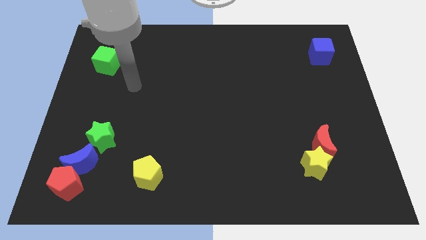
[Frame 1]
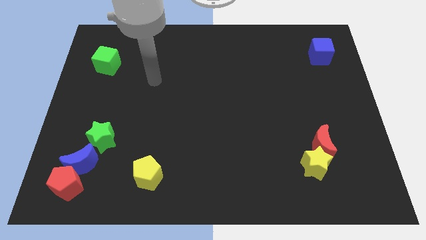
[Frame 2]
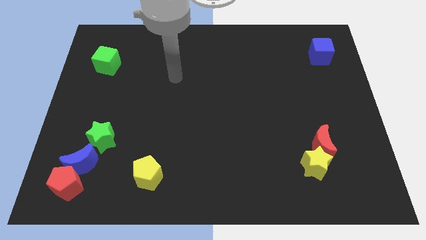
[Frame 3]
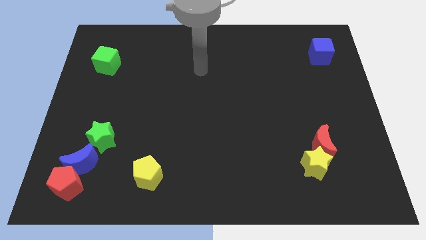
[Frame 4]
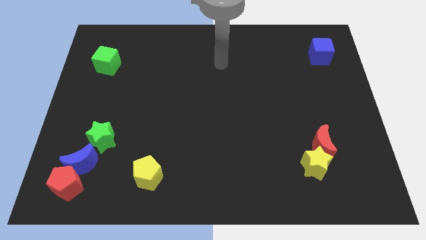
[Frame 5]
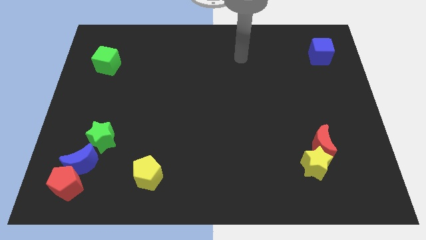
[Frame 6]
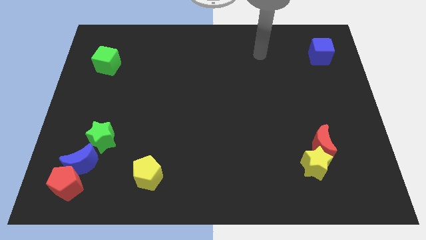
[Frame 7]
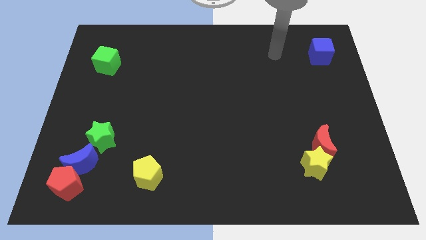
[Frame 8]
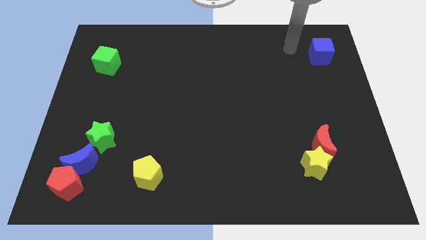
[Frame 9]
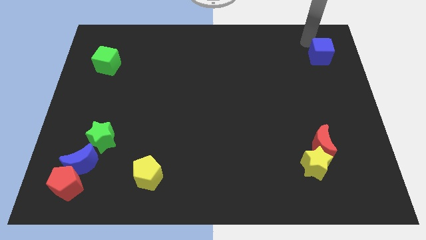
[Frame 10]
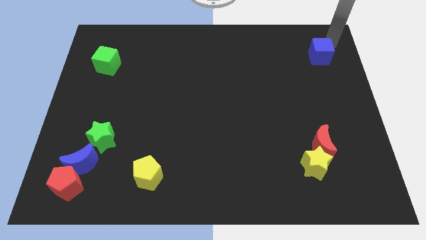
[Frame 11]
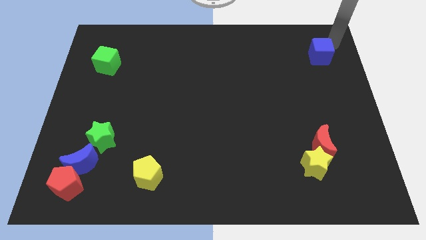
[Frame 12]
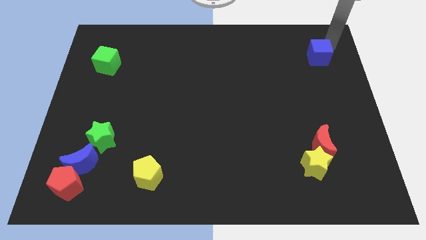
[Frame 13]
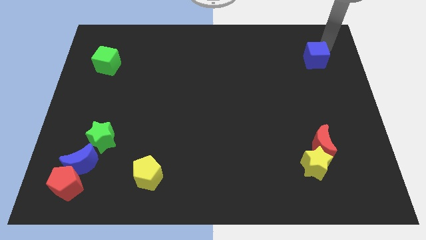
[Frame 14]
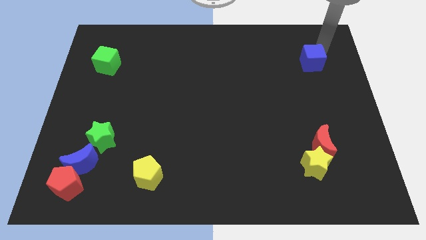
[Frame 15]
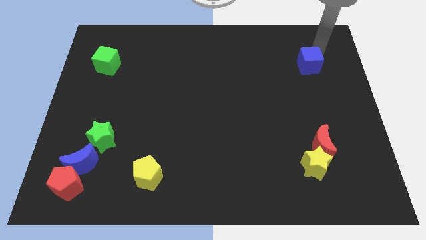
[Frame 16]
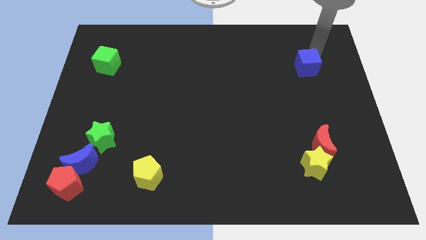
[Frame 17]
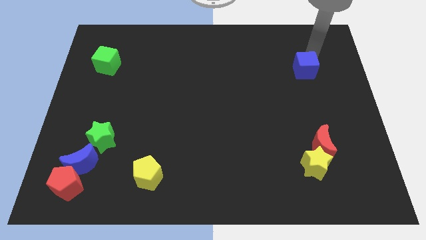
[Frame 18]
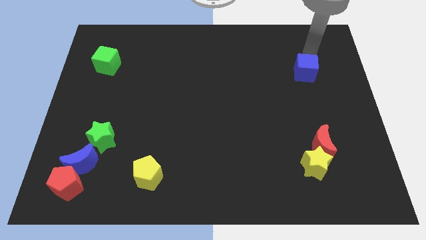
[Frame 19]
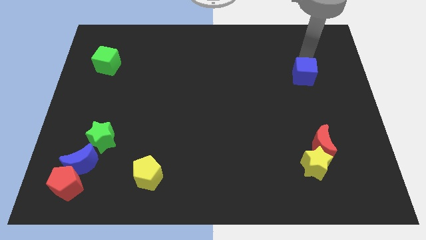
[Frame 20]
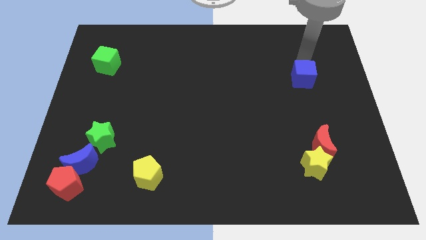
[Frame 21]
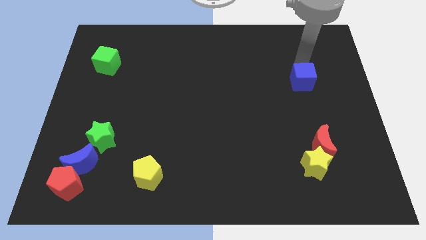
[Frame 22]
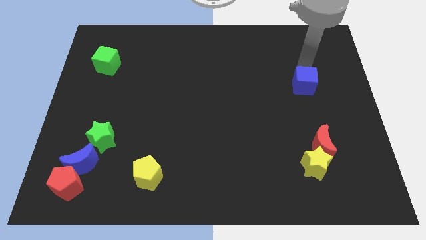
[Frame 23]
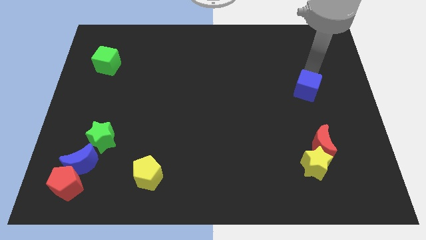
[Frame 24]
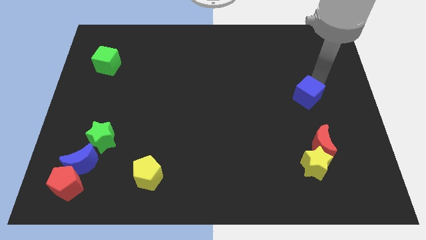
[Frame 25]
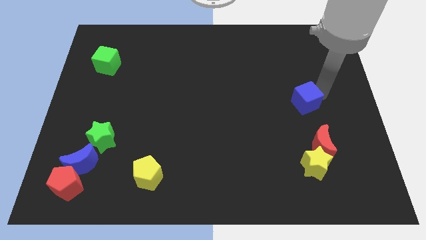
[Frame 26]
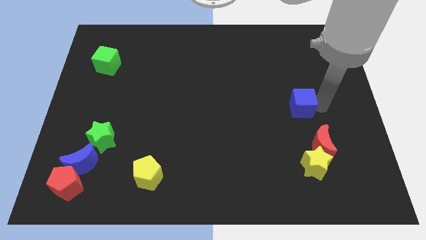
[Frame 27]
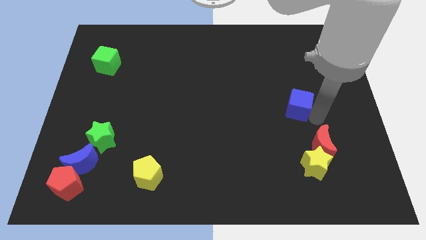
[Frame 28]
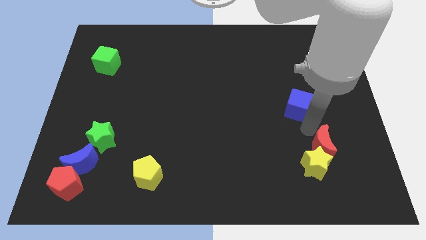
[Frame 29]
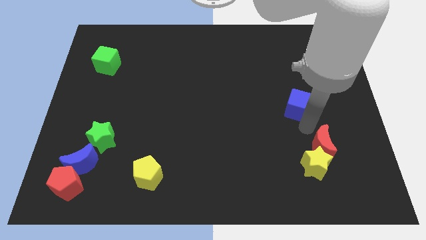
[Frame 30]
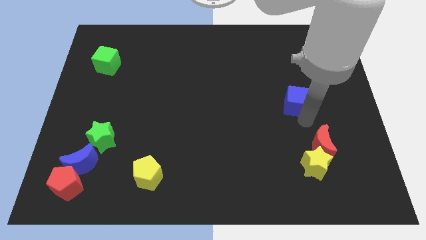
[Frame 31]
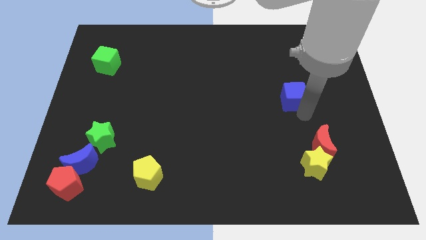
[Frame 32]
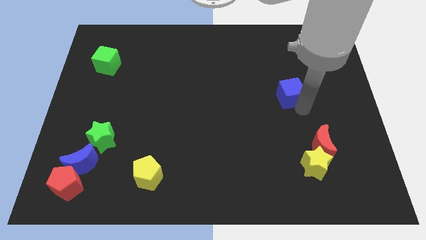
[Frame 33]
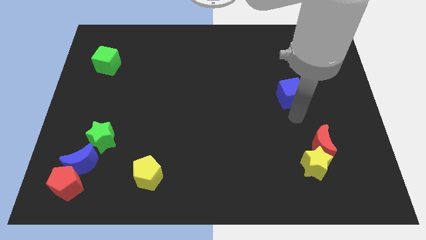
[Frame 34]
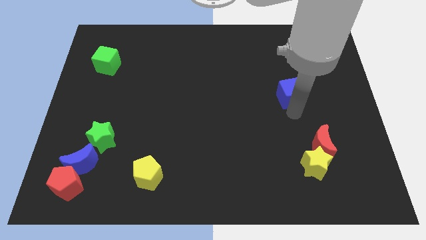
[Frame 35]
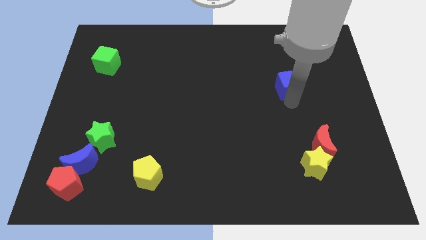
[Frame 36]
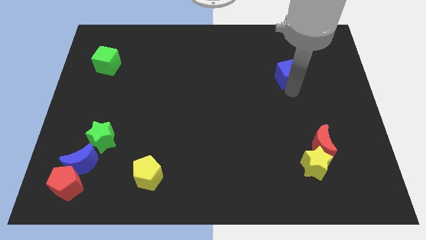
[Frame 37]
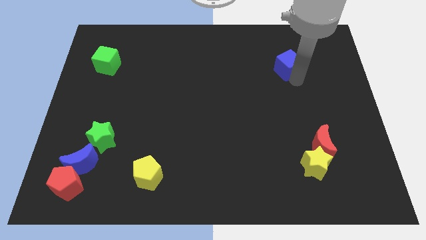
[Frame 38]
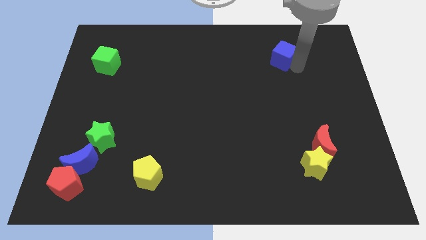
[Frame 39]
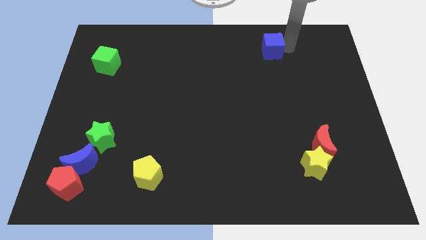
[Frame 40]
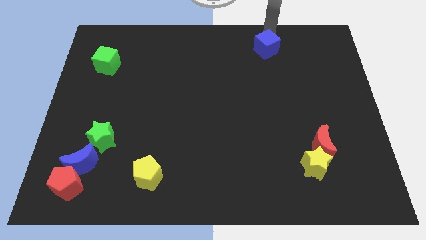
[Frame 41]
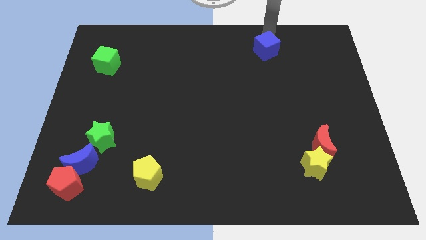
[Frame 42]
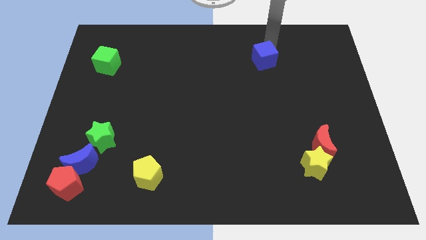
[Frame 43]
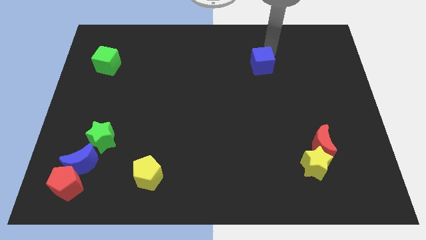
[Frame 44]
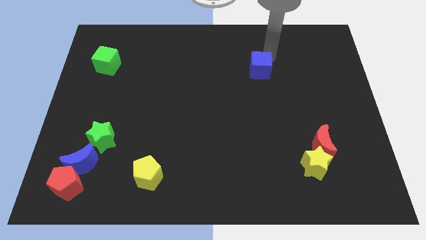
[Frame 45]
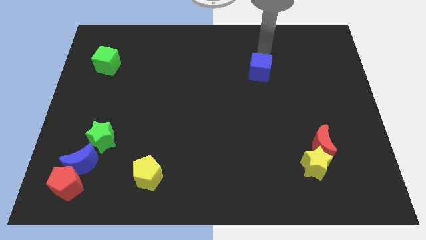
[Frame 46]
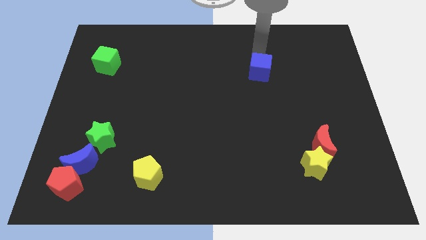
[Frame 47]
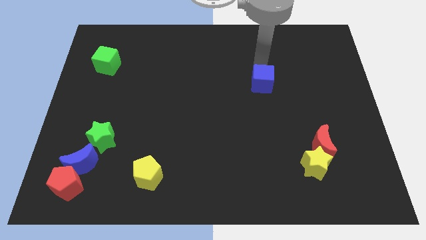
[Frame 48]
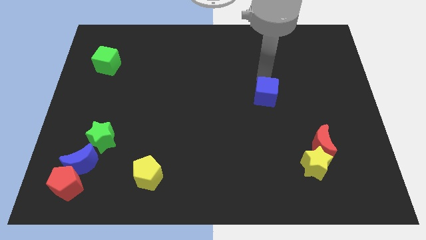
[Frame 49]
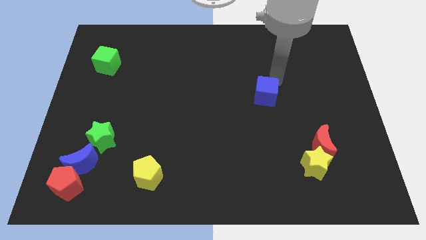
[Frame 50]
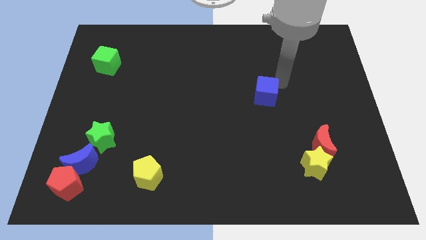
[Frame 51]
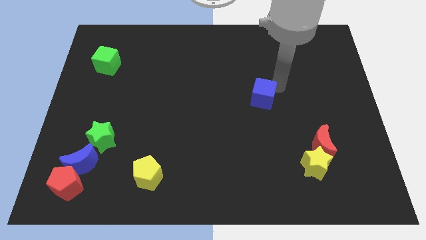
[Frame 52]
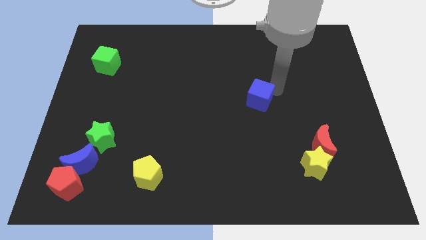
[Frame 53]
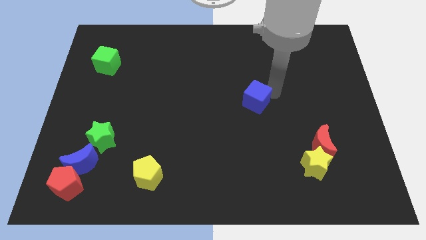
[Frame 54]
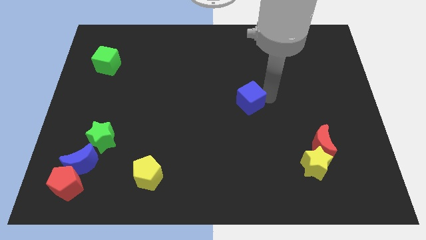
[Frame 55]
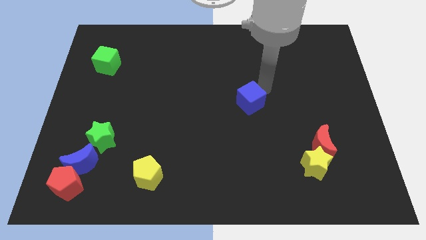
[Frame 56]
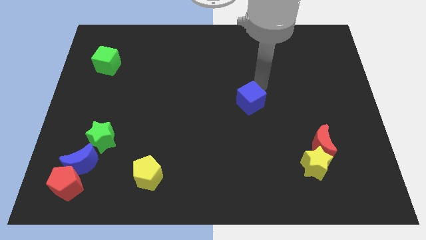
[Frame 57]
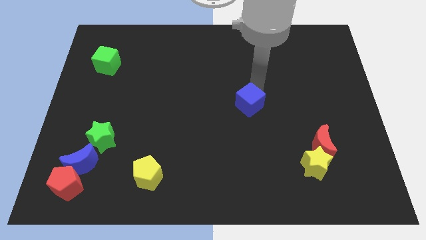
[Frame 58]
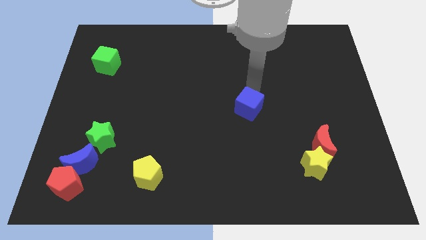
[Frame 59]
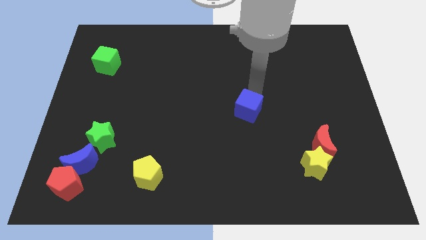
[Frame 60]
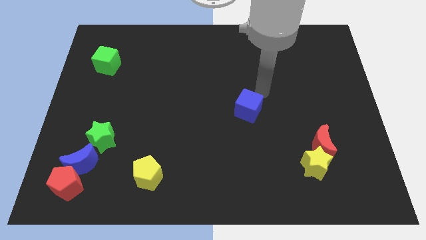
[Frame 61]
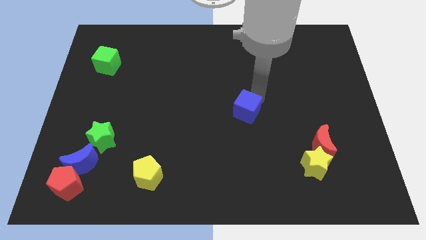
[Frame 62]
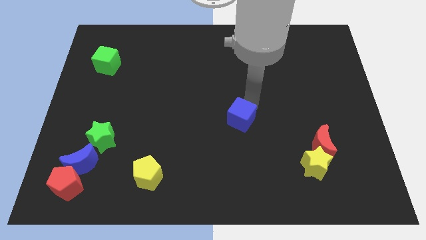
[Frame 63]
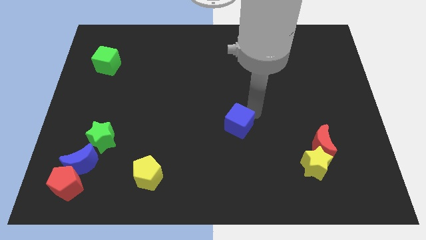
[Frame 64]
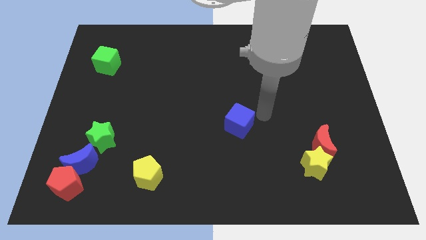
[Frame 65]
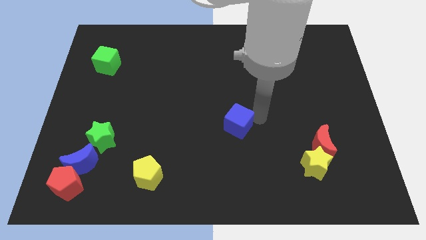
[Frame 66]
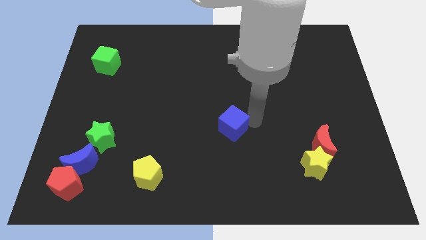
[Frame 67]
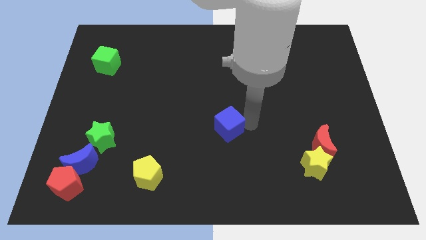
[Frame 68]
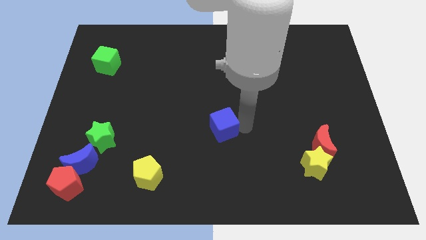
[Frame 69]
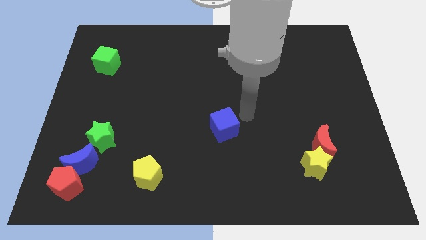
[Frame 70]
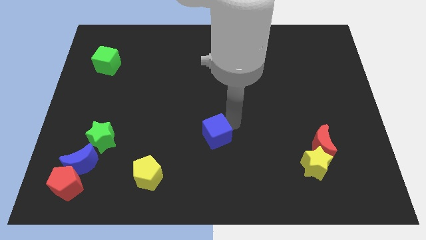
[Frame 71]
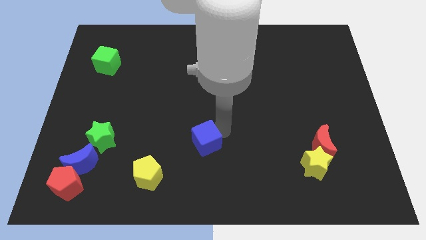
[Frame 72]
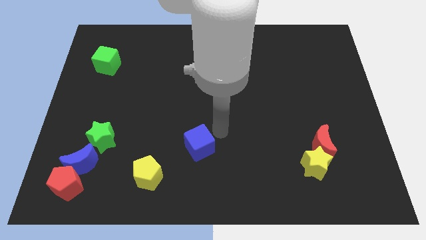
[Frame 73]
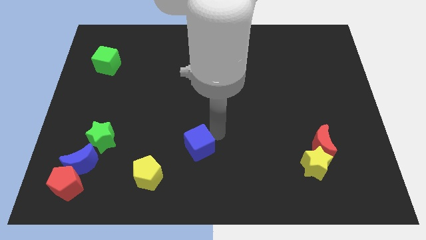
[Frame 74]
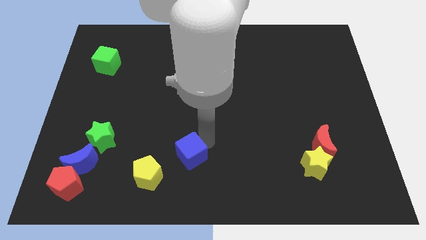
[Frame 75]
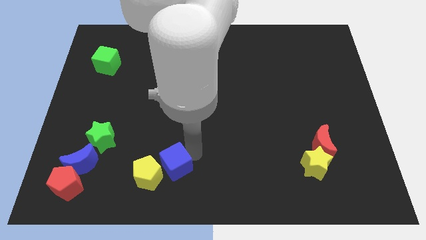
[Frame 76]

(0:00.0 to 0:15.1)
move the blue cube to the yellow pentagon
